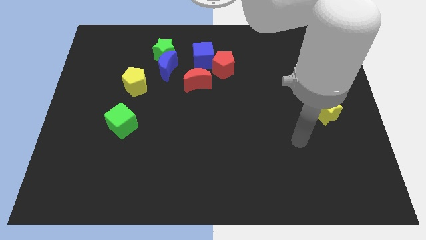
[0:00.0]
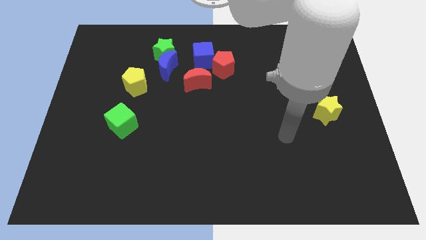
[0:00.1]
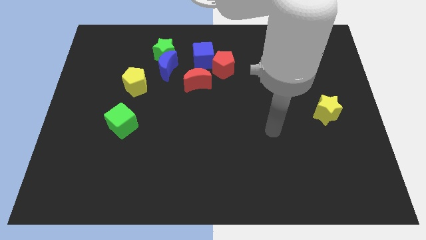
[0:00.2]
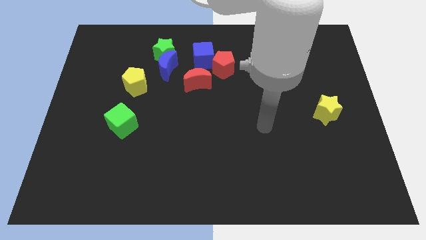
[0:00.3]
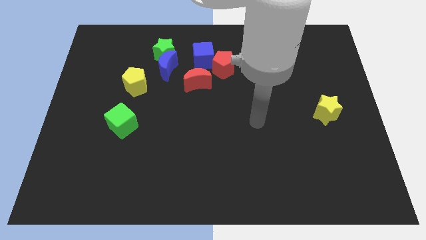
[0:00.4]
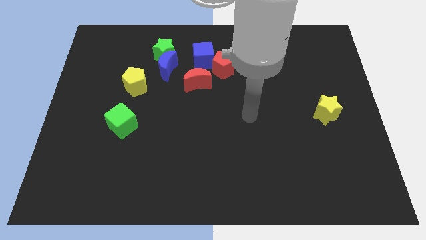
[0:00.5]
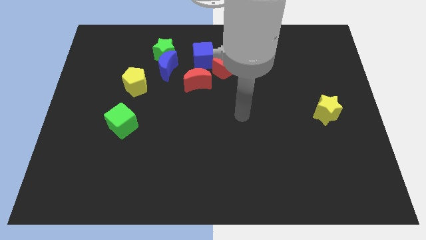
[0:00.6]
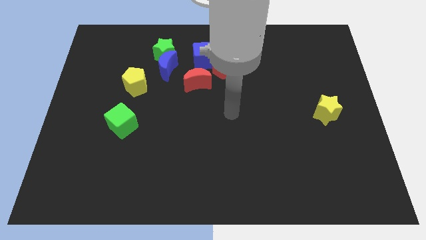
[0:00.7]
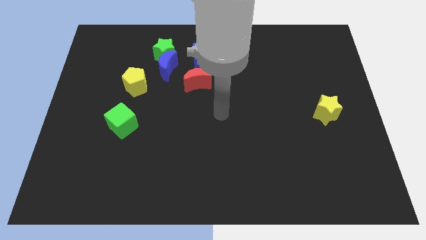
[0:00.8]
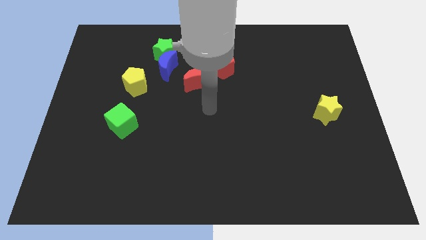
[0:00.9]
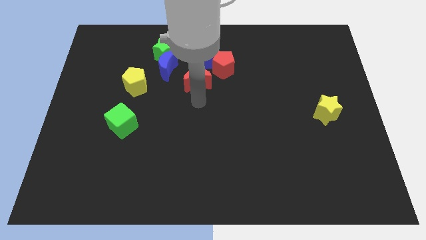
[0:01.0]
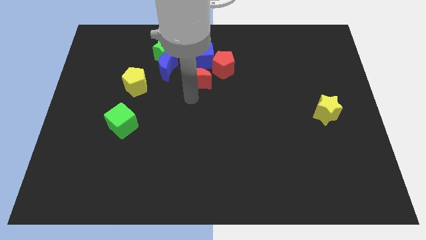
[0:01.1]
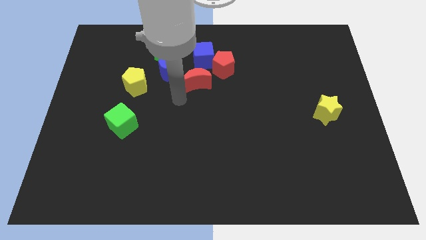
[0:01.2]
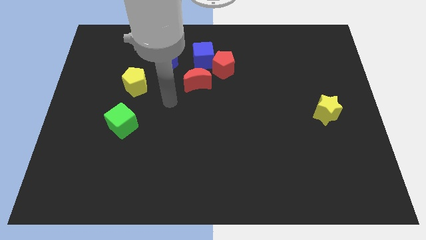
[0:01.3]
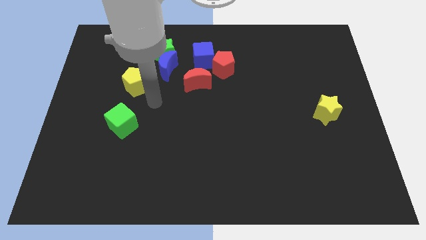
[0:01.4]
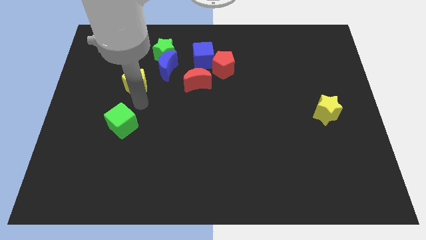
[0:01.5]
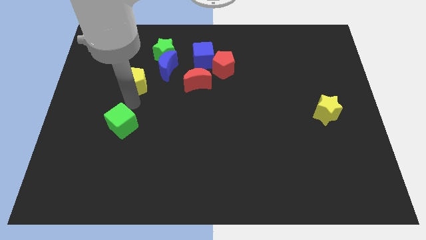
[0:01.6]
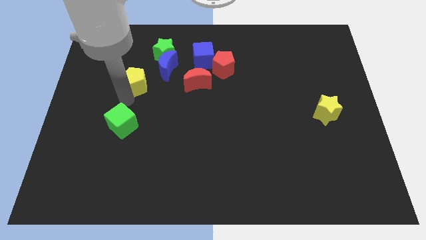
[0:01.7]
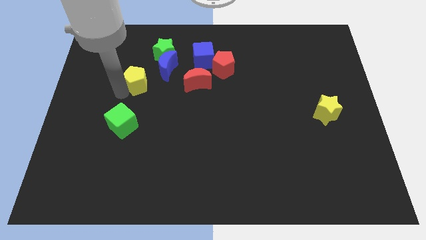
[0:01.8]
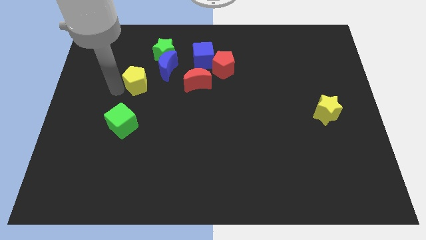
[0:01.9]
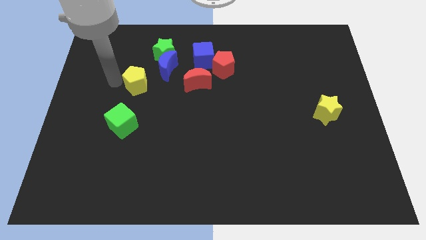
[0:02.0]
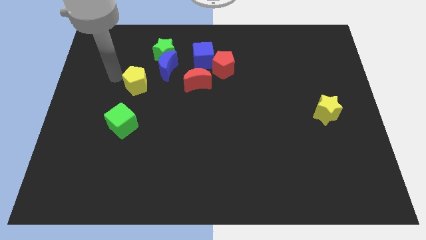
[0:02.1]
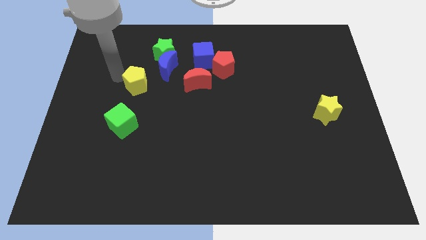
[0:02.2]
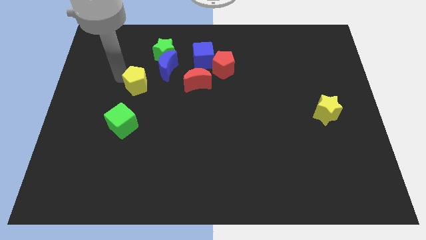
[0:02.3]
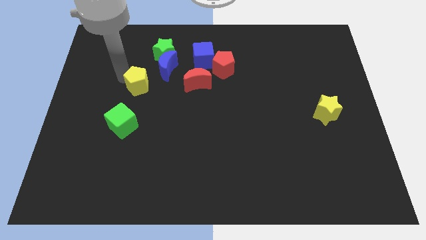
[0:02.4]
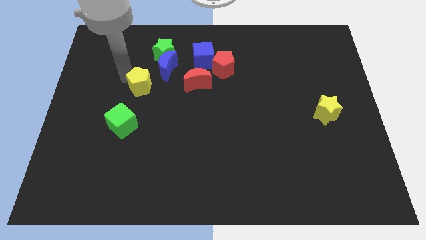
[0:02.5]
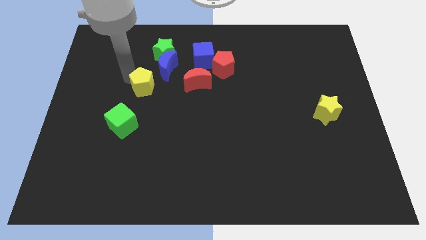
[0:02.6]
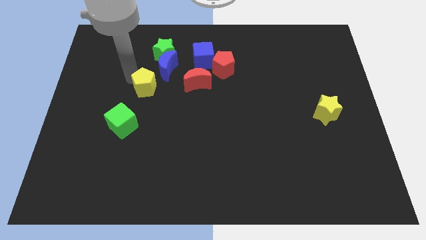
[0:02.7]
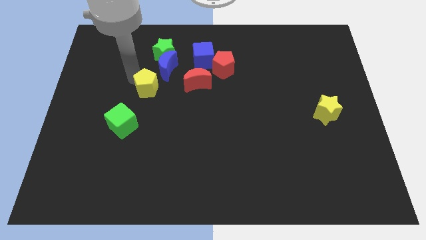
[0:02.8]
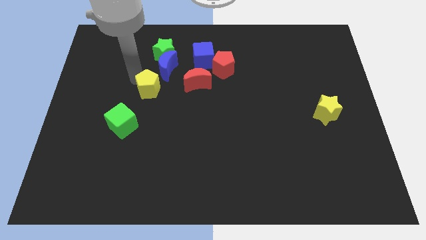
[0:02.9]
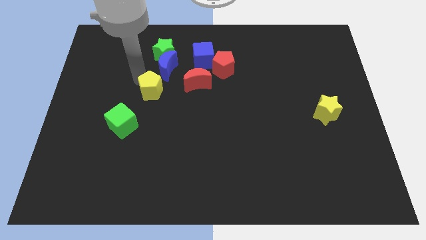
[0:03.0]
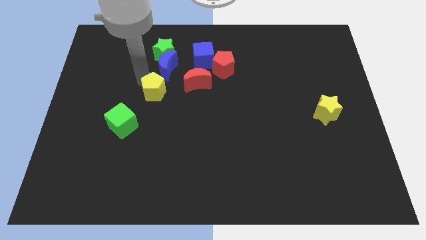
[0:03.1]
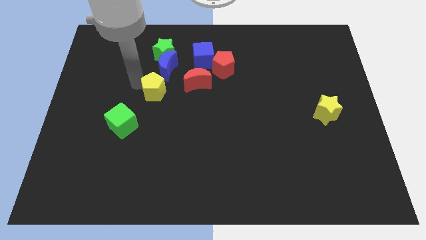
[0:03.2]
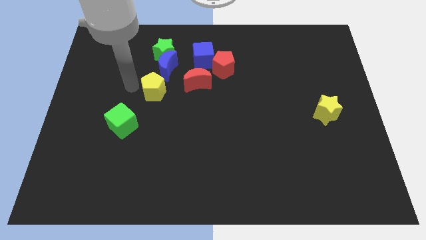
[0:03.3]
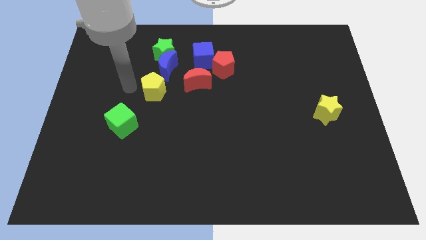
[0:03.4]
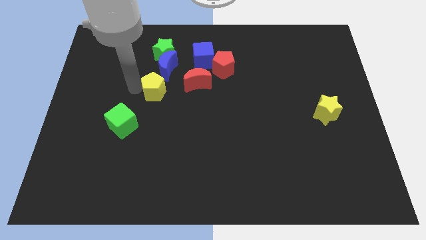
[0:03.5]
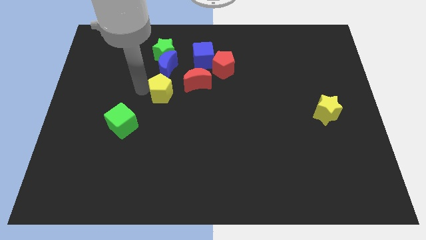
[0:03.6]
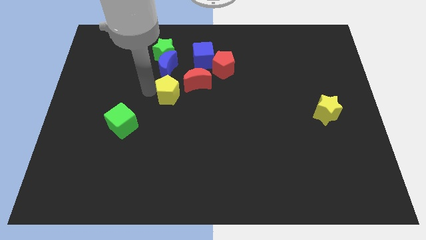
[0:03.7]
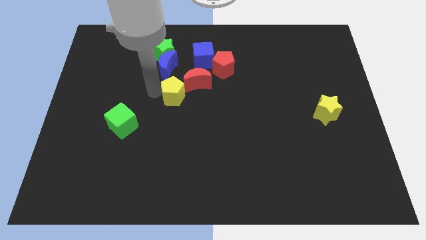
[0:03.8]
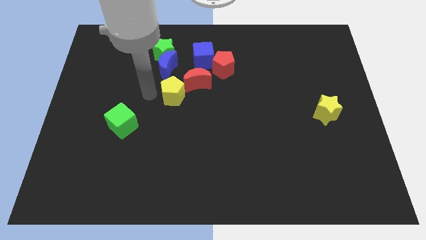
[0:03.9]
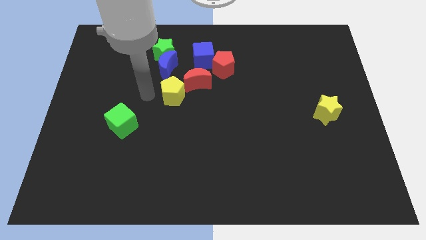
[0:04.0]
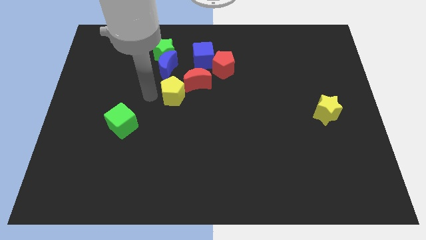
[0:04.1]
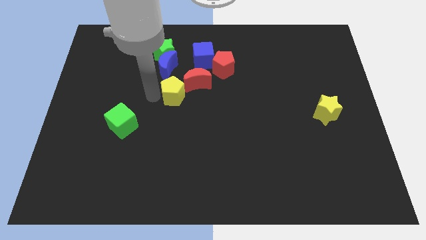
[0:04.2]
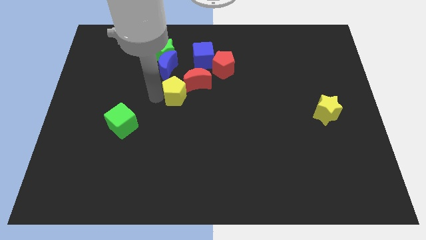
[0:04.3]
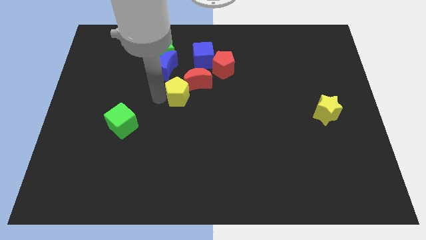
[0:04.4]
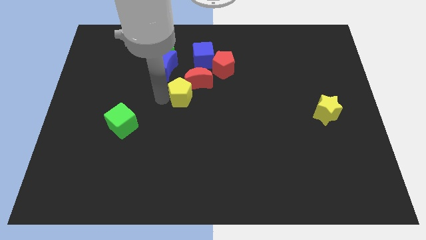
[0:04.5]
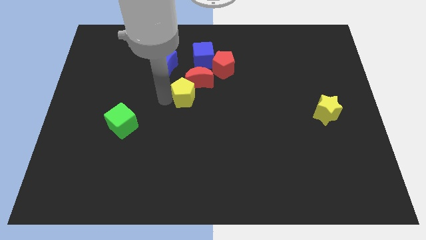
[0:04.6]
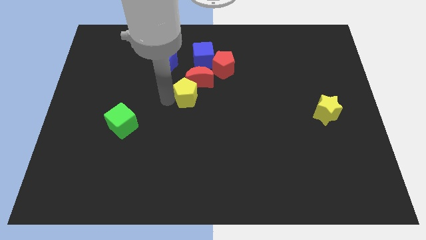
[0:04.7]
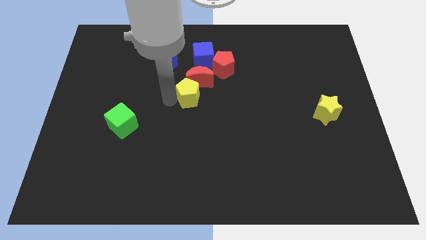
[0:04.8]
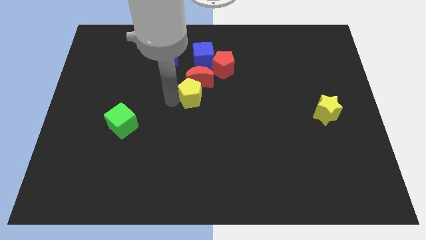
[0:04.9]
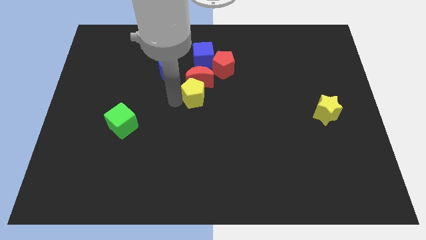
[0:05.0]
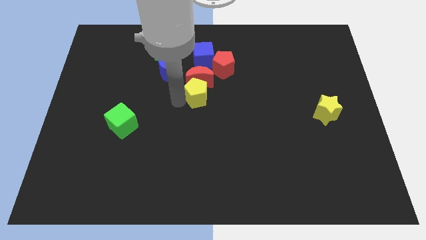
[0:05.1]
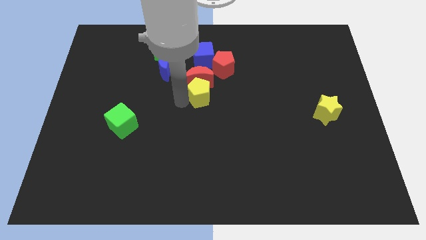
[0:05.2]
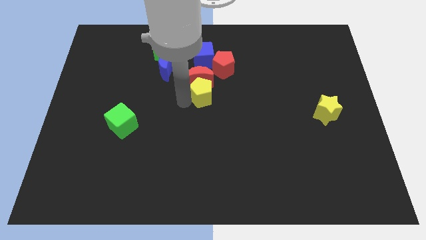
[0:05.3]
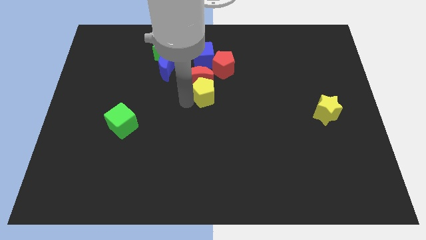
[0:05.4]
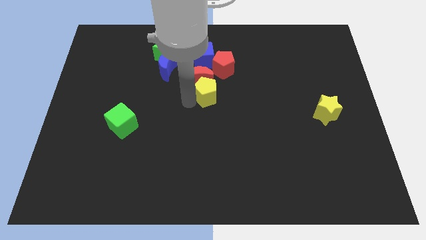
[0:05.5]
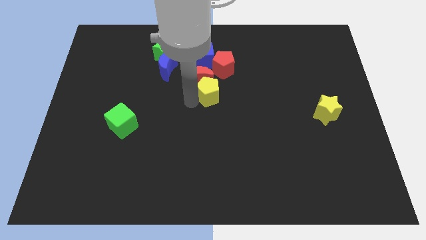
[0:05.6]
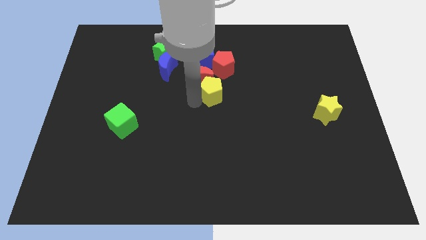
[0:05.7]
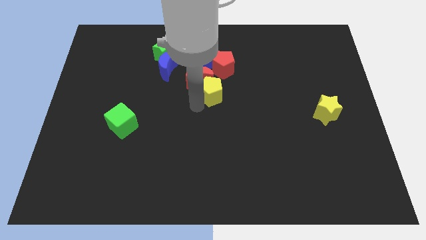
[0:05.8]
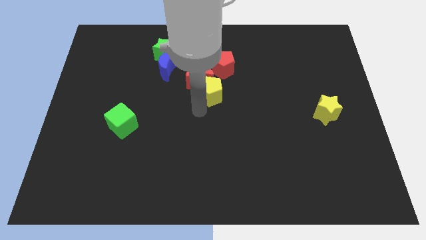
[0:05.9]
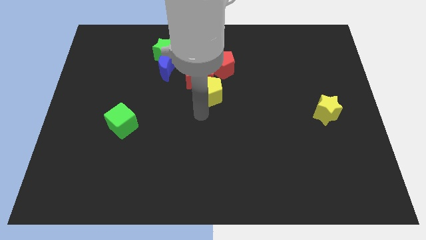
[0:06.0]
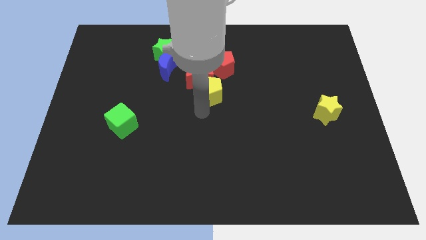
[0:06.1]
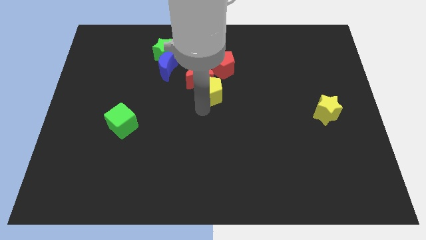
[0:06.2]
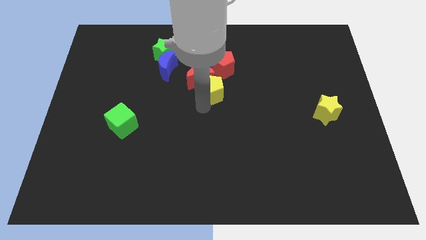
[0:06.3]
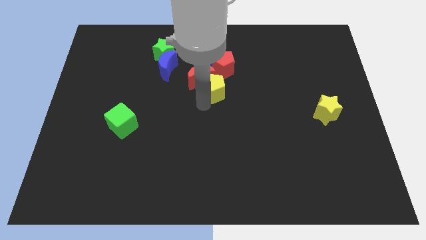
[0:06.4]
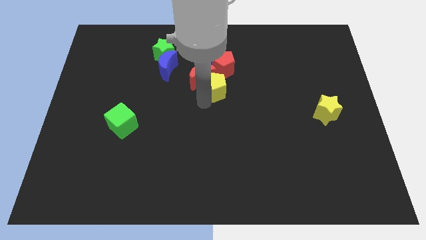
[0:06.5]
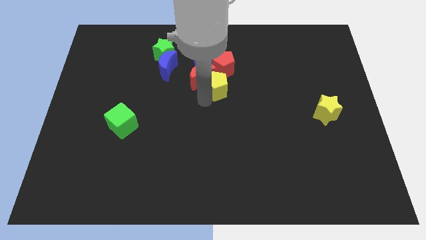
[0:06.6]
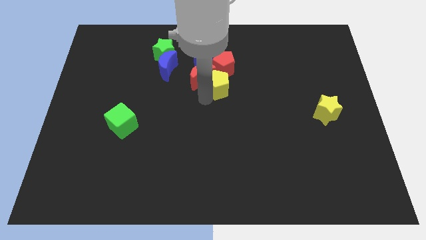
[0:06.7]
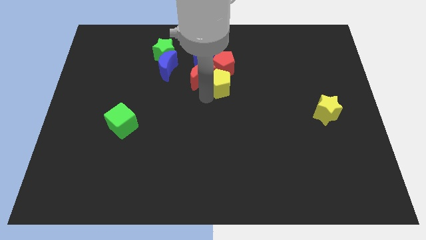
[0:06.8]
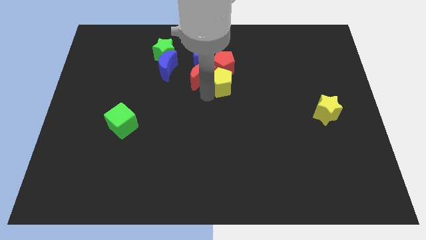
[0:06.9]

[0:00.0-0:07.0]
move the yellow pentagon towards the red pentagon

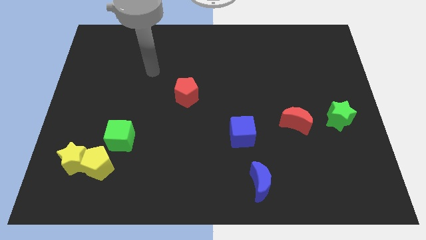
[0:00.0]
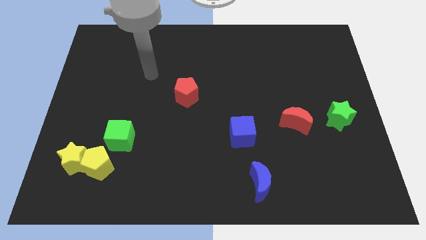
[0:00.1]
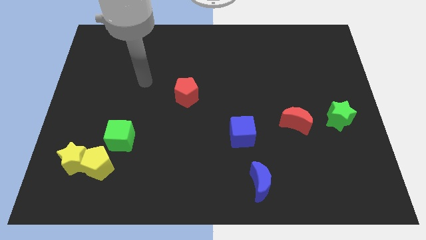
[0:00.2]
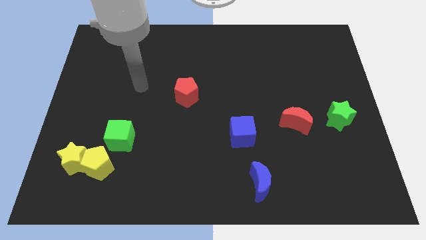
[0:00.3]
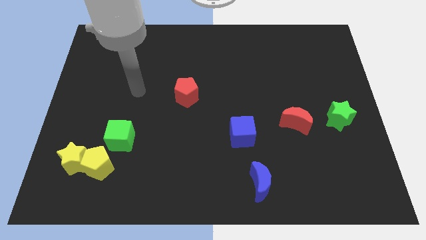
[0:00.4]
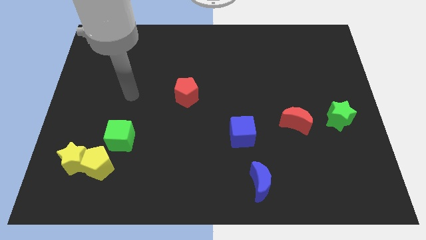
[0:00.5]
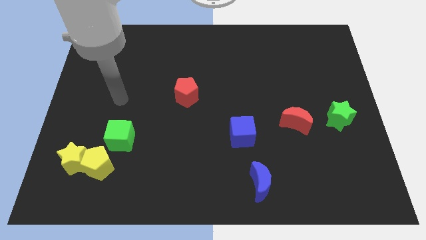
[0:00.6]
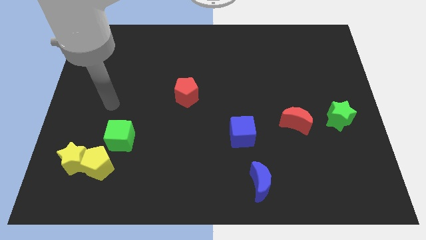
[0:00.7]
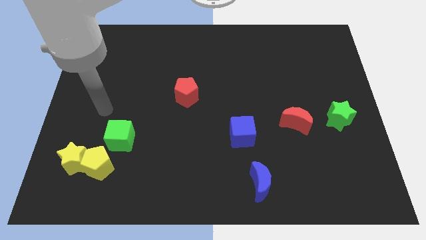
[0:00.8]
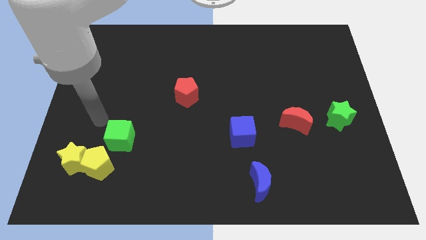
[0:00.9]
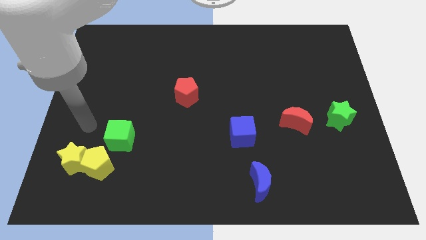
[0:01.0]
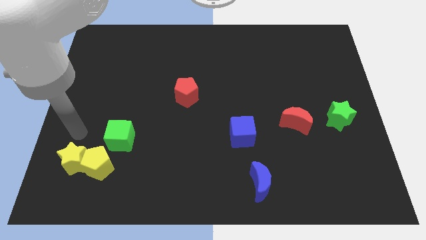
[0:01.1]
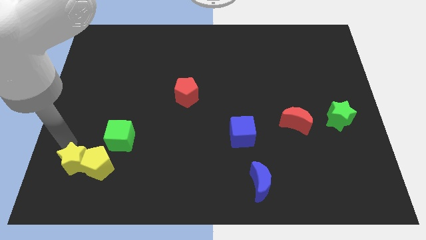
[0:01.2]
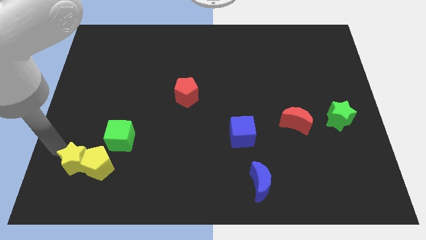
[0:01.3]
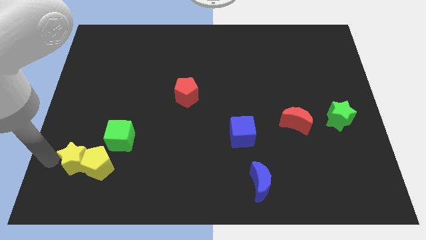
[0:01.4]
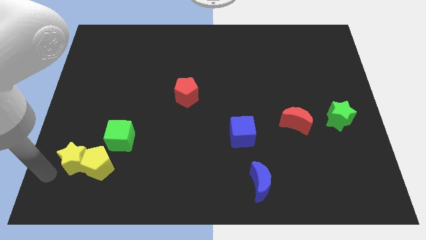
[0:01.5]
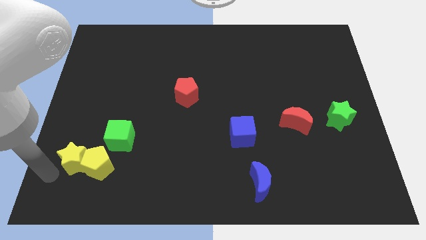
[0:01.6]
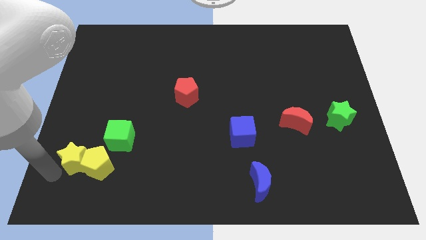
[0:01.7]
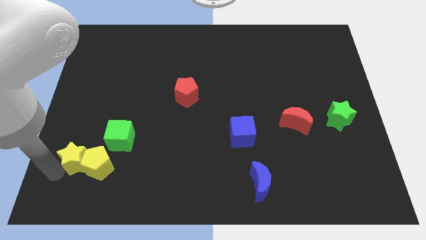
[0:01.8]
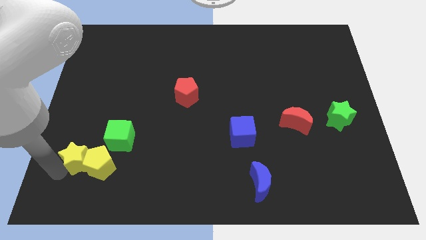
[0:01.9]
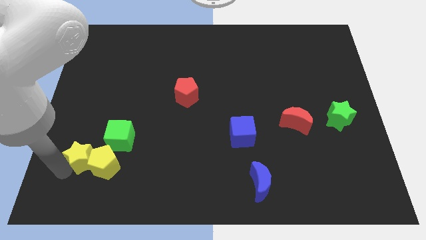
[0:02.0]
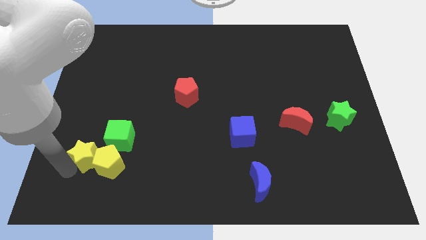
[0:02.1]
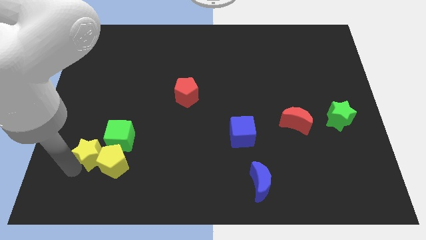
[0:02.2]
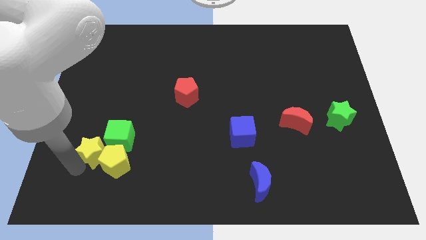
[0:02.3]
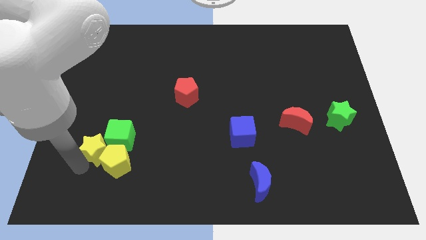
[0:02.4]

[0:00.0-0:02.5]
push the yellow star to the green cube
